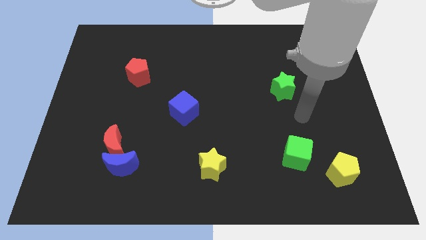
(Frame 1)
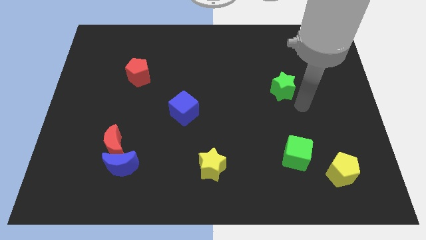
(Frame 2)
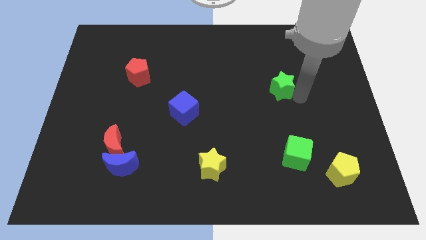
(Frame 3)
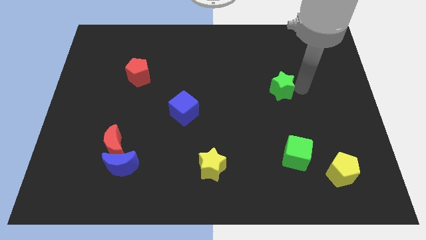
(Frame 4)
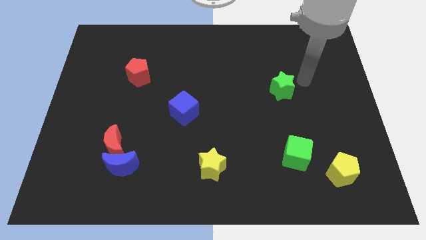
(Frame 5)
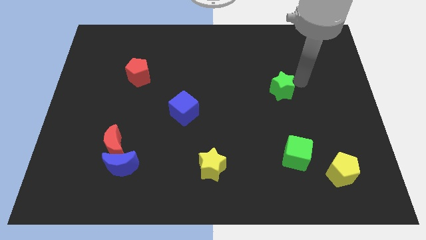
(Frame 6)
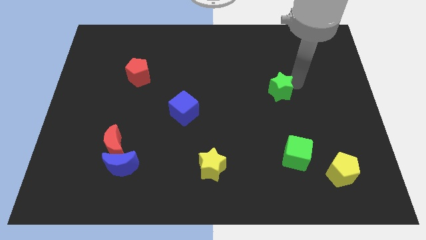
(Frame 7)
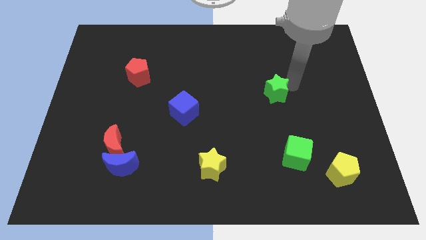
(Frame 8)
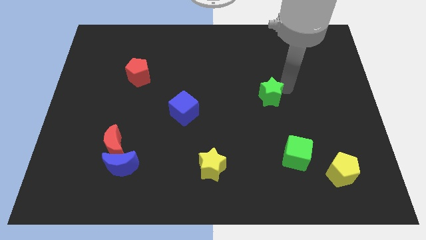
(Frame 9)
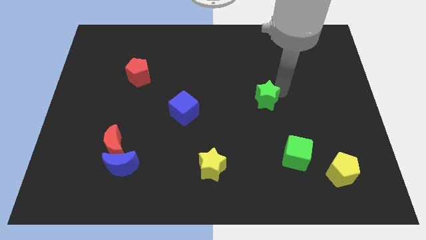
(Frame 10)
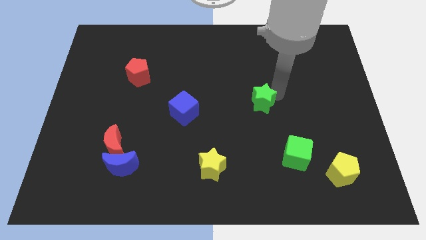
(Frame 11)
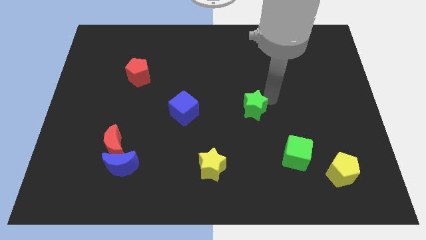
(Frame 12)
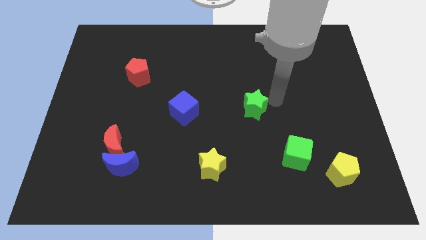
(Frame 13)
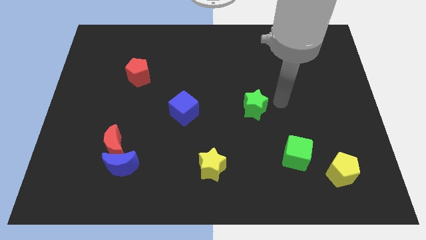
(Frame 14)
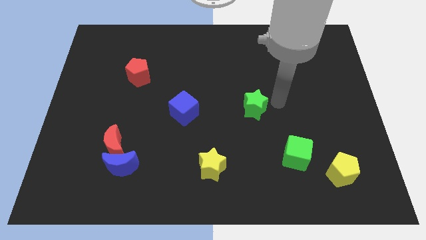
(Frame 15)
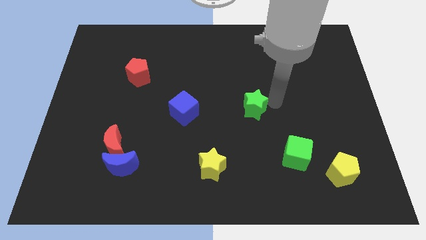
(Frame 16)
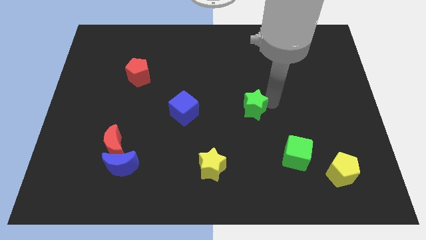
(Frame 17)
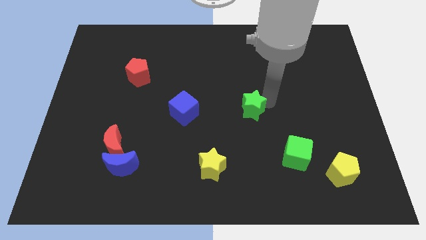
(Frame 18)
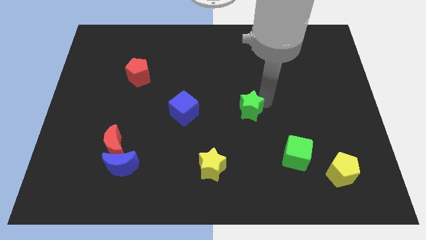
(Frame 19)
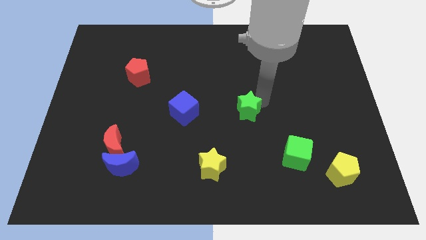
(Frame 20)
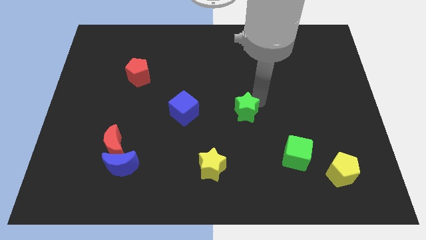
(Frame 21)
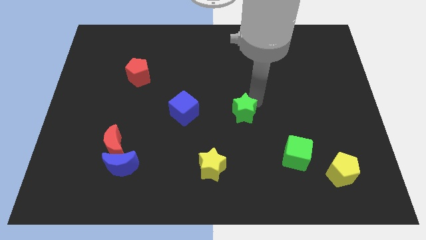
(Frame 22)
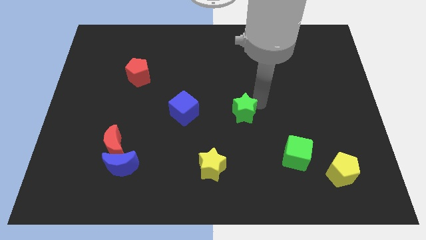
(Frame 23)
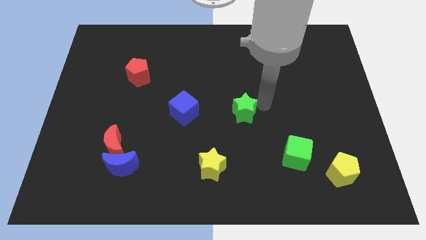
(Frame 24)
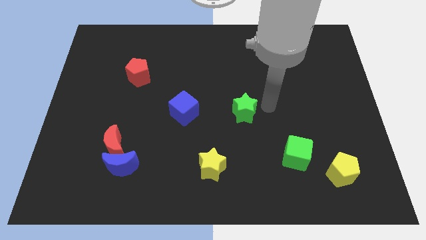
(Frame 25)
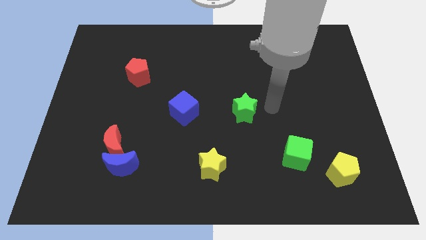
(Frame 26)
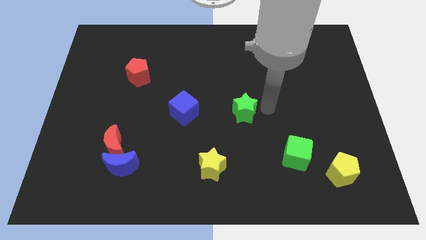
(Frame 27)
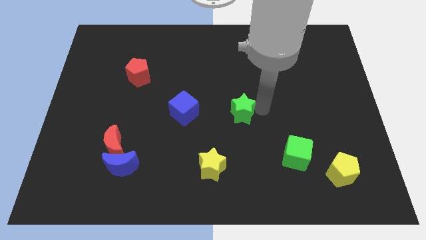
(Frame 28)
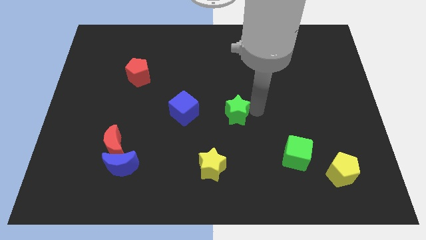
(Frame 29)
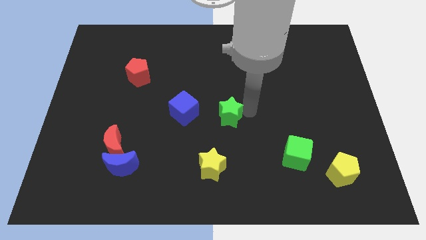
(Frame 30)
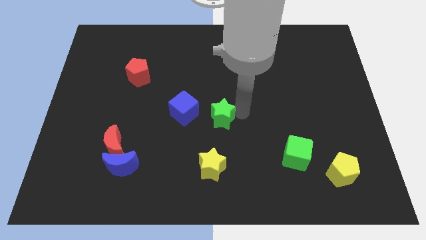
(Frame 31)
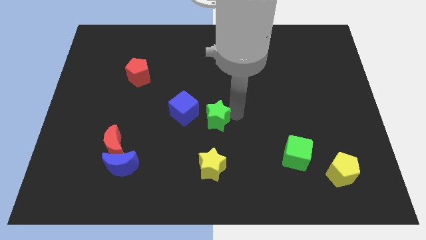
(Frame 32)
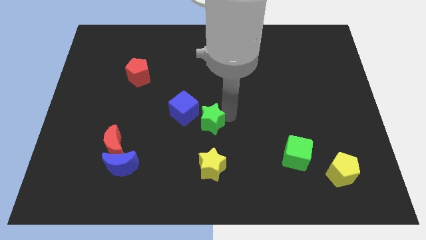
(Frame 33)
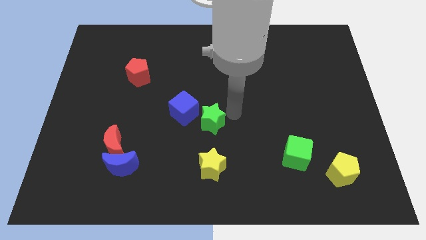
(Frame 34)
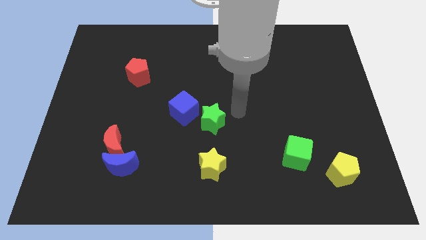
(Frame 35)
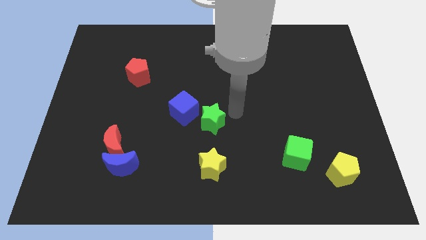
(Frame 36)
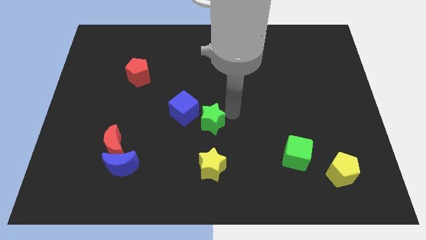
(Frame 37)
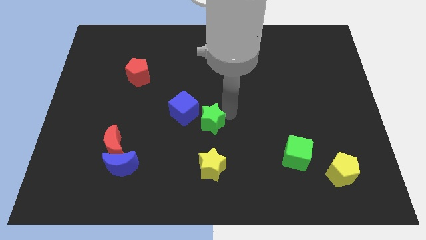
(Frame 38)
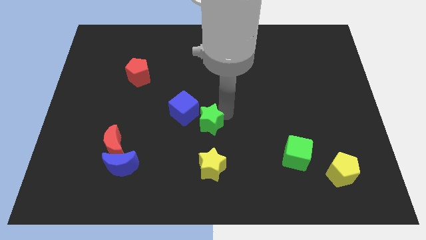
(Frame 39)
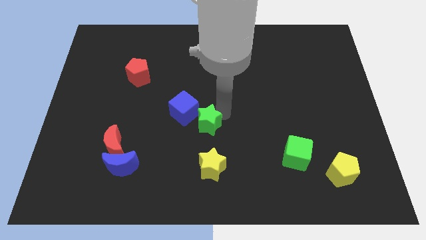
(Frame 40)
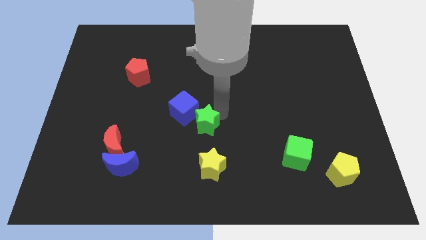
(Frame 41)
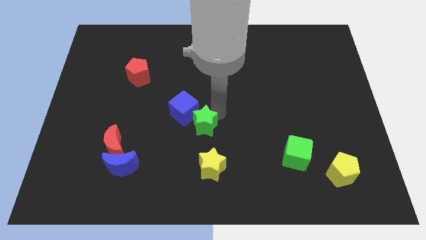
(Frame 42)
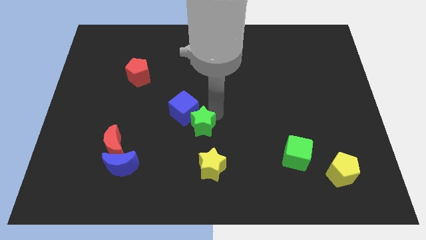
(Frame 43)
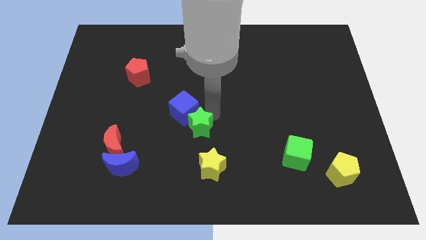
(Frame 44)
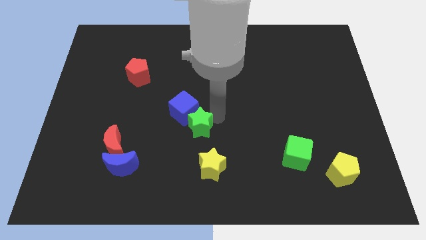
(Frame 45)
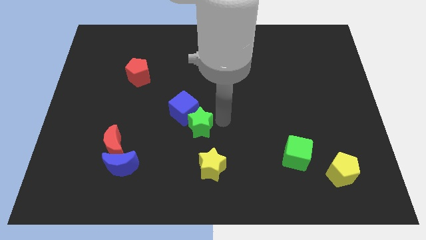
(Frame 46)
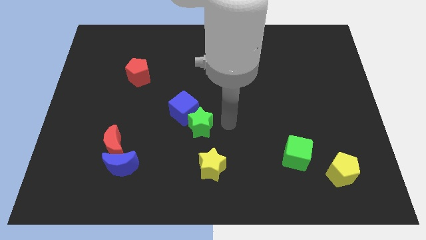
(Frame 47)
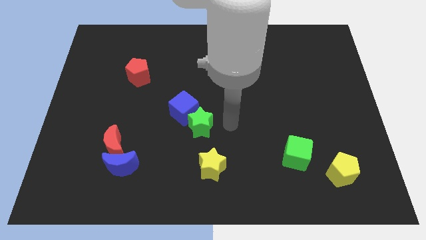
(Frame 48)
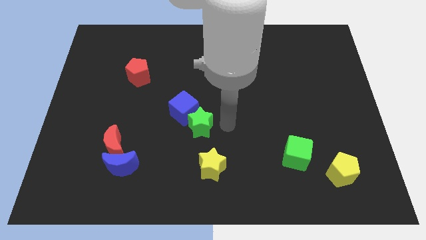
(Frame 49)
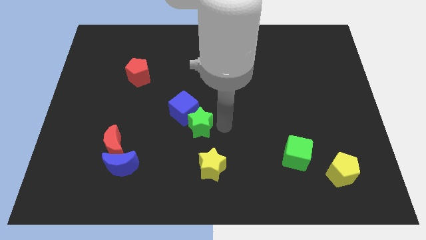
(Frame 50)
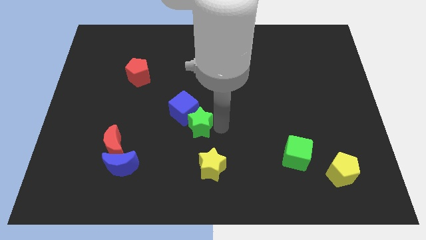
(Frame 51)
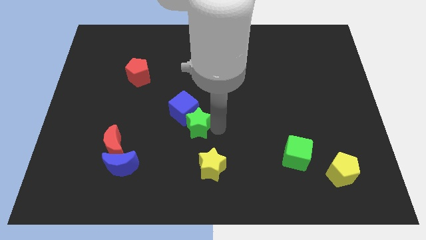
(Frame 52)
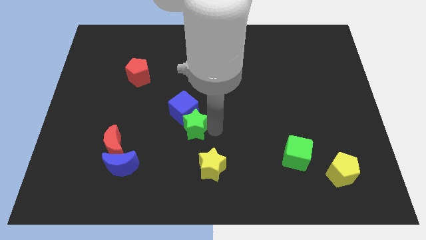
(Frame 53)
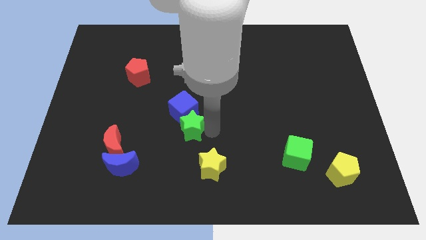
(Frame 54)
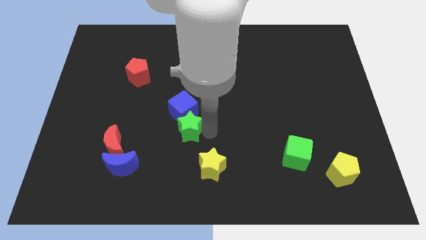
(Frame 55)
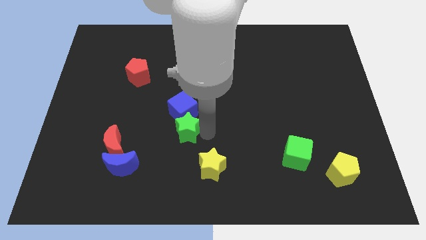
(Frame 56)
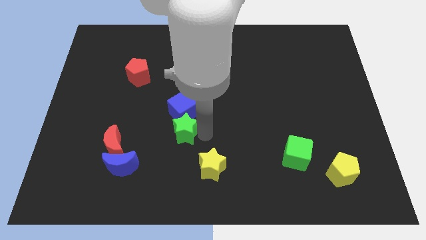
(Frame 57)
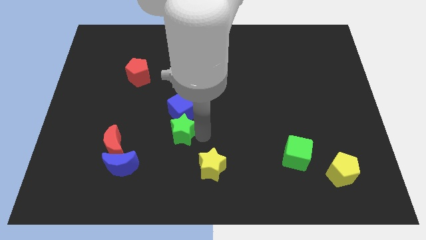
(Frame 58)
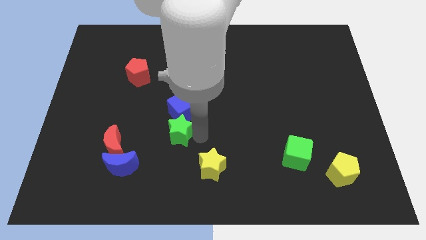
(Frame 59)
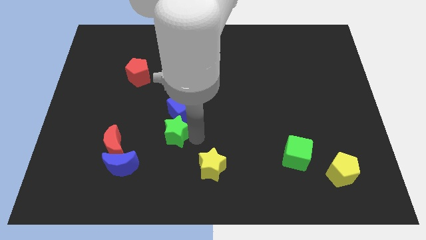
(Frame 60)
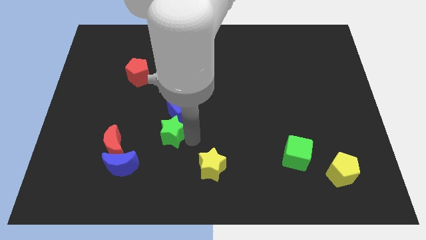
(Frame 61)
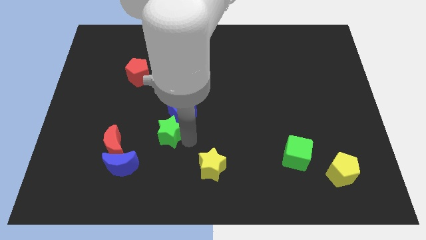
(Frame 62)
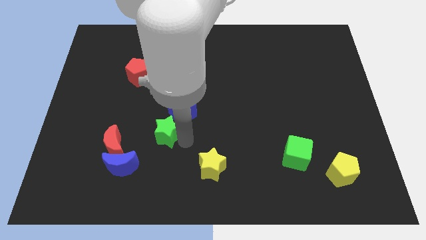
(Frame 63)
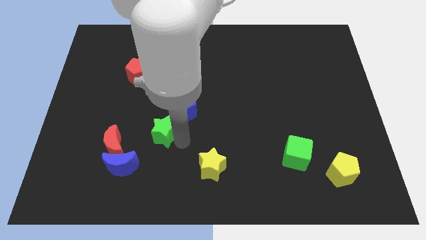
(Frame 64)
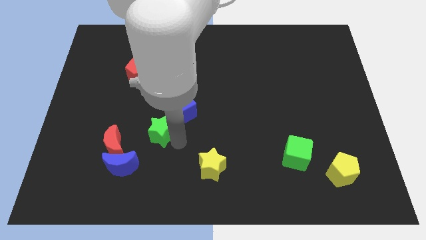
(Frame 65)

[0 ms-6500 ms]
move the green star to the top right side of the red moon
